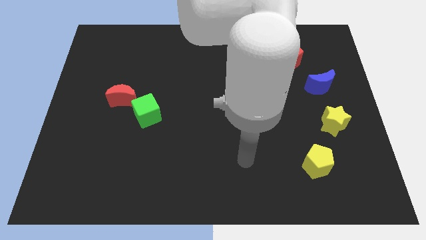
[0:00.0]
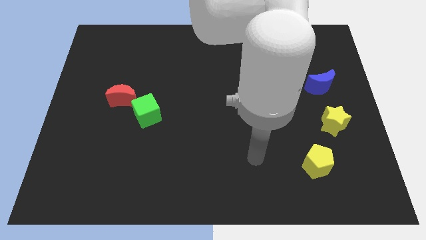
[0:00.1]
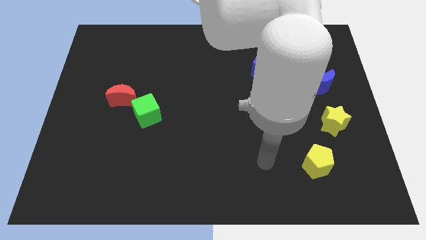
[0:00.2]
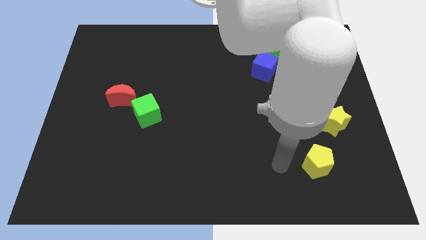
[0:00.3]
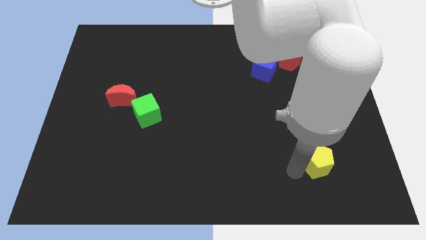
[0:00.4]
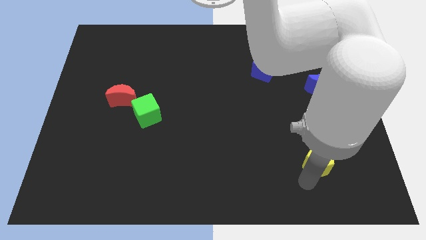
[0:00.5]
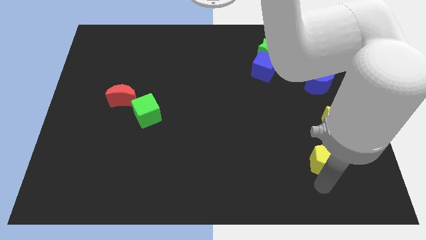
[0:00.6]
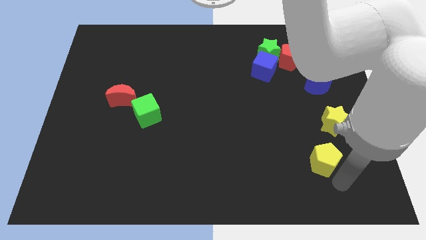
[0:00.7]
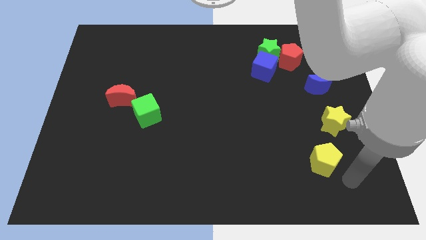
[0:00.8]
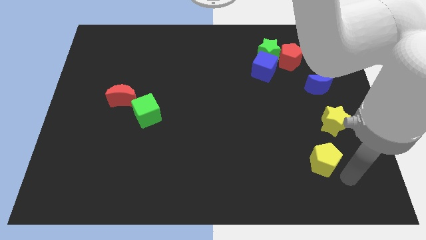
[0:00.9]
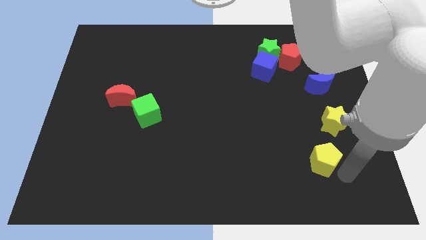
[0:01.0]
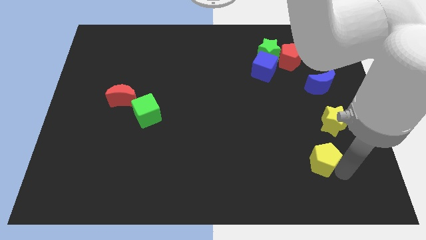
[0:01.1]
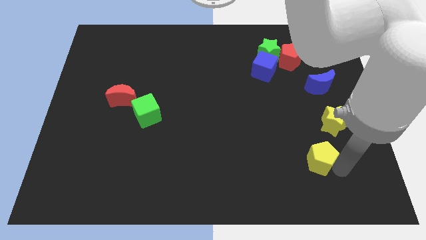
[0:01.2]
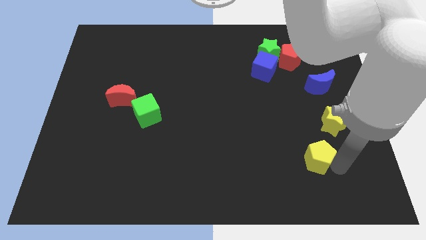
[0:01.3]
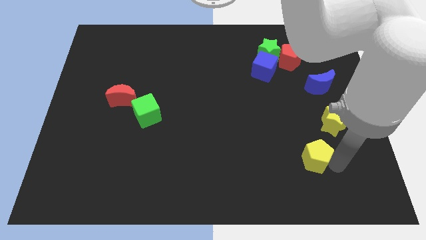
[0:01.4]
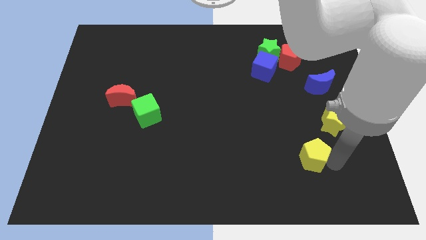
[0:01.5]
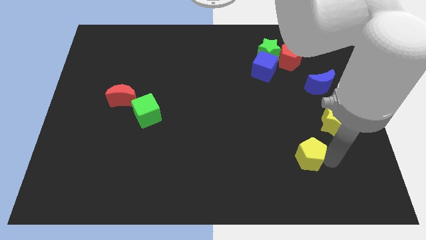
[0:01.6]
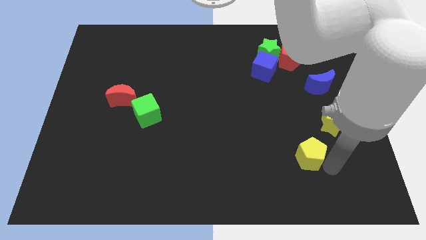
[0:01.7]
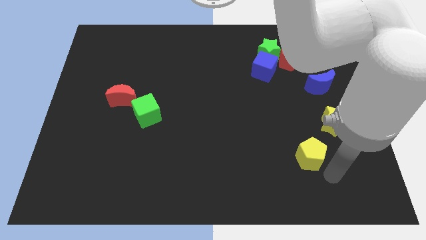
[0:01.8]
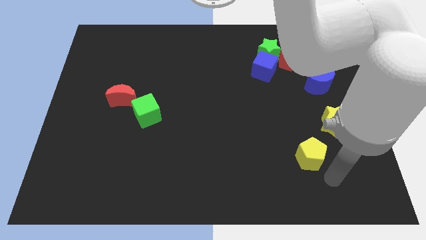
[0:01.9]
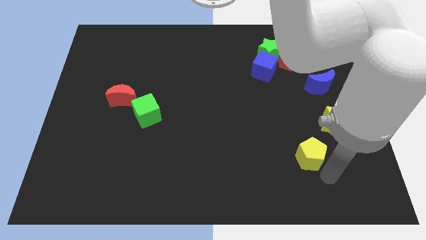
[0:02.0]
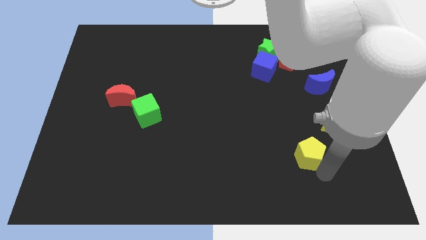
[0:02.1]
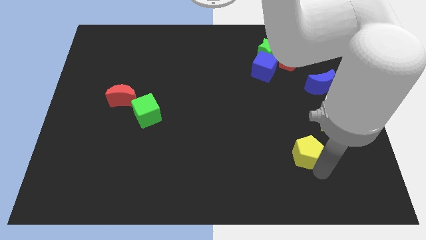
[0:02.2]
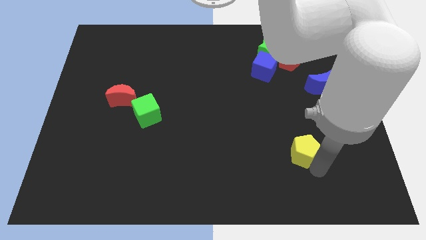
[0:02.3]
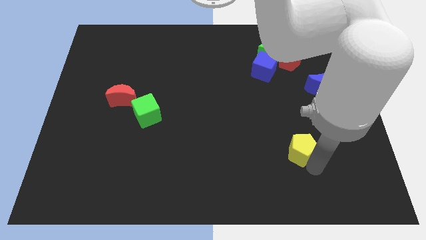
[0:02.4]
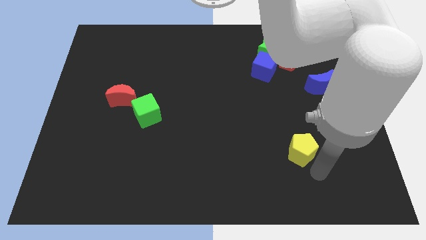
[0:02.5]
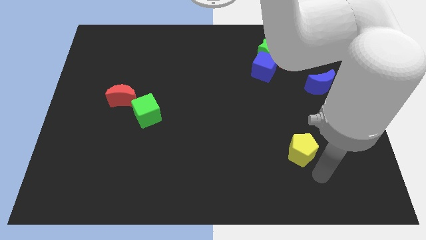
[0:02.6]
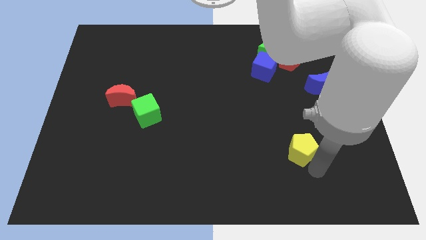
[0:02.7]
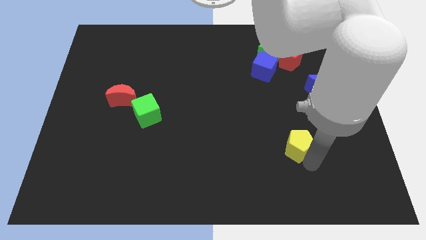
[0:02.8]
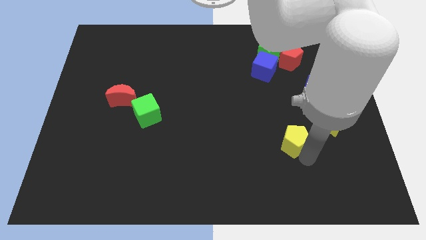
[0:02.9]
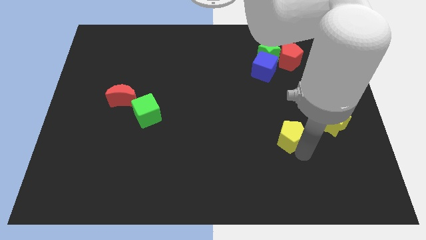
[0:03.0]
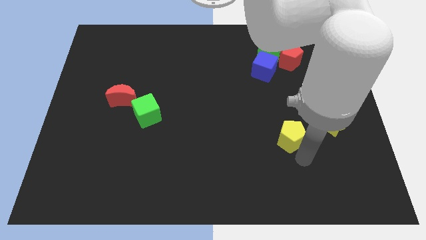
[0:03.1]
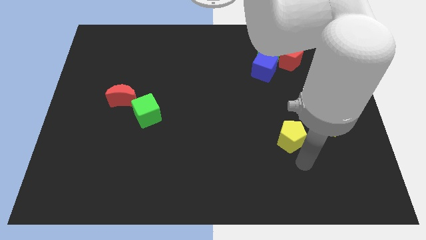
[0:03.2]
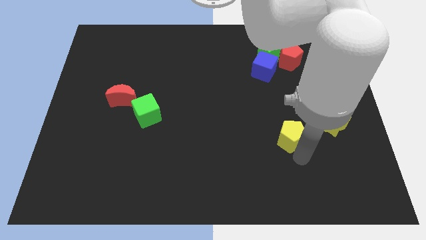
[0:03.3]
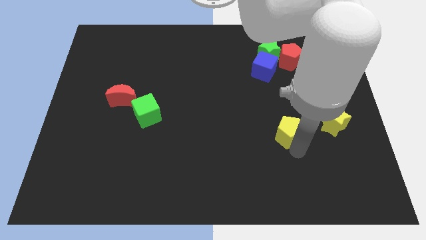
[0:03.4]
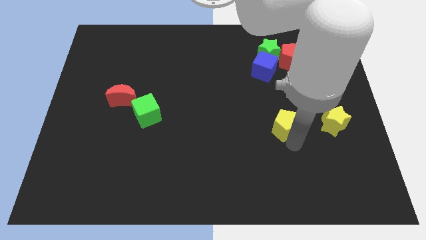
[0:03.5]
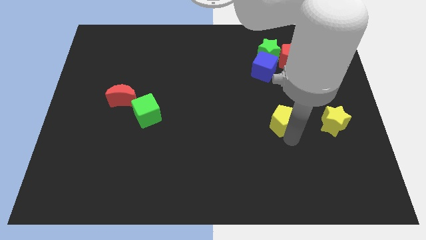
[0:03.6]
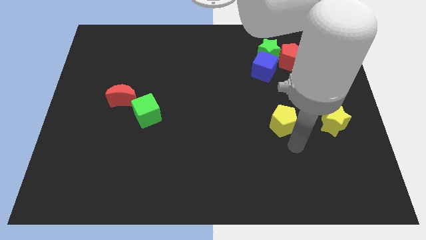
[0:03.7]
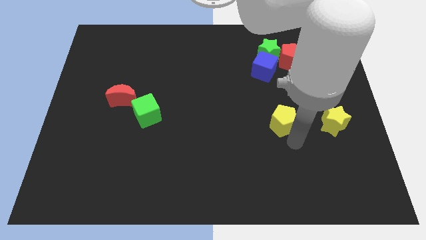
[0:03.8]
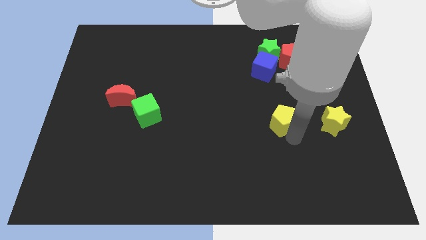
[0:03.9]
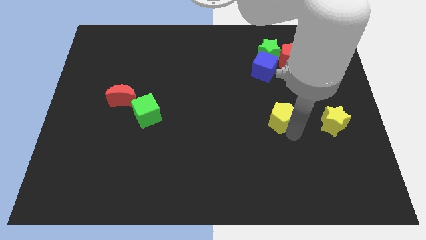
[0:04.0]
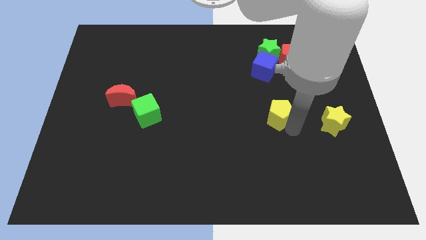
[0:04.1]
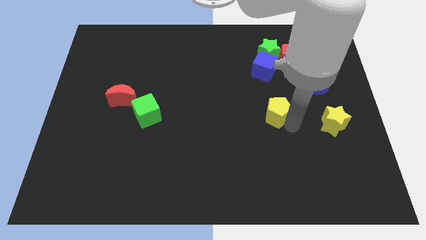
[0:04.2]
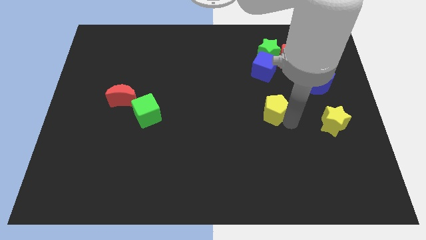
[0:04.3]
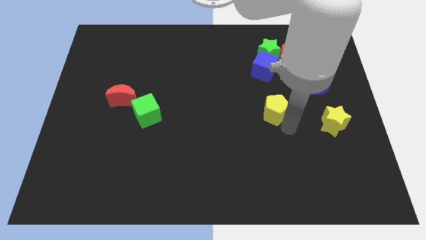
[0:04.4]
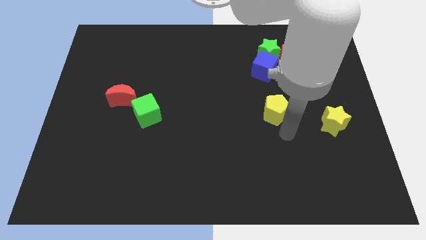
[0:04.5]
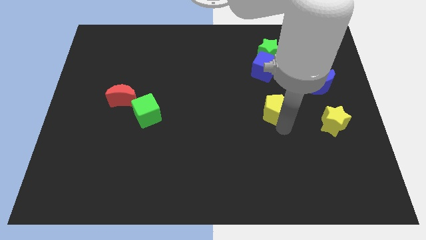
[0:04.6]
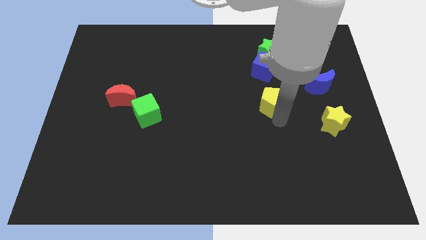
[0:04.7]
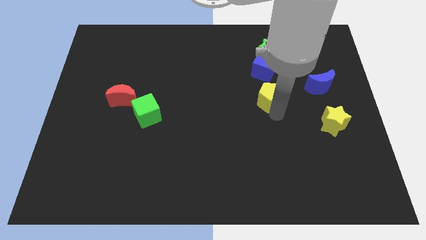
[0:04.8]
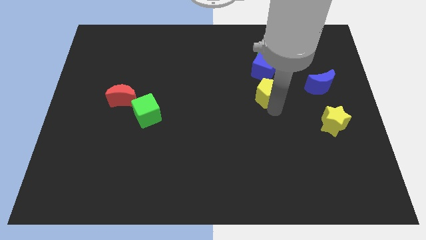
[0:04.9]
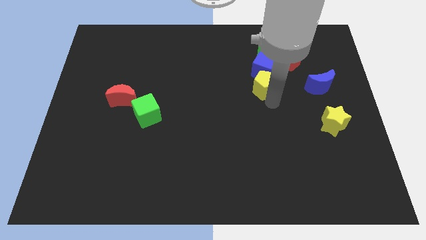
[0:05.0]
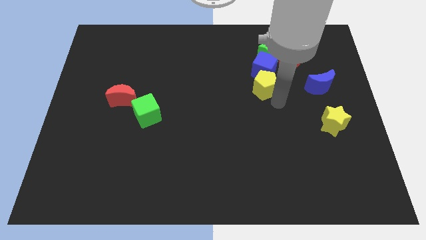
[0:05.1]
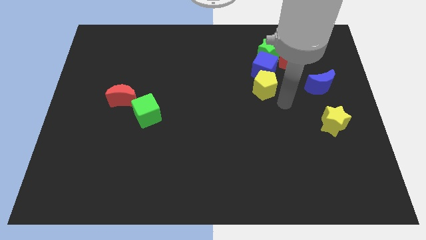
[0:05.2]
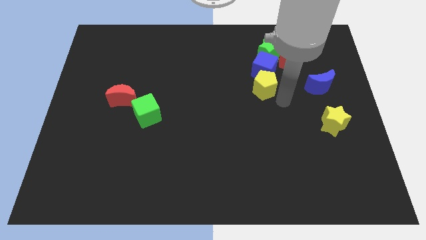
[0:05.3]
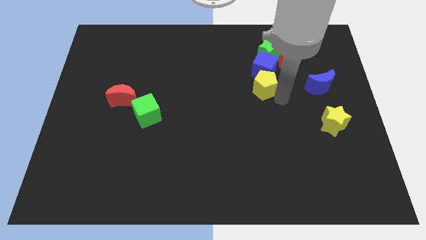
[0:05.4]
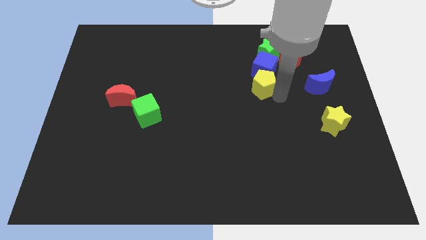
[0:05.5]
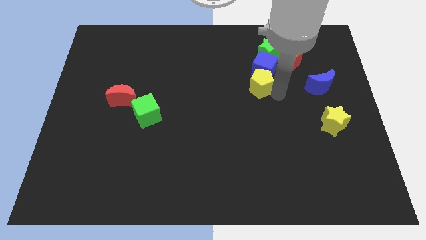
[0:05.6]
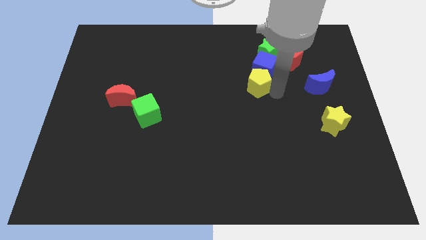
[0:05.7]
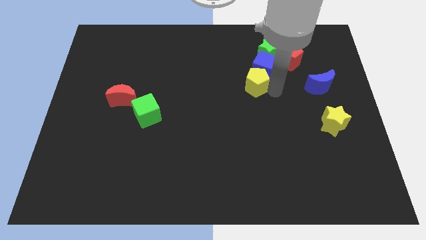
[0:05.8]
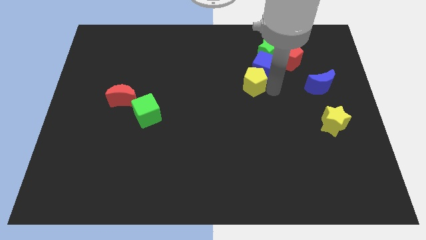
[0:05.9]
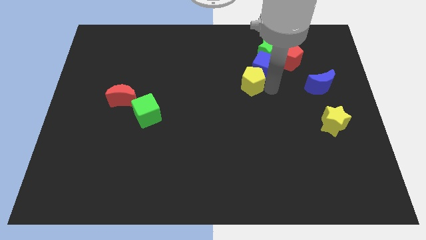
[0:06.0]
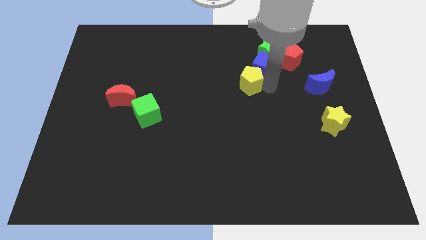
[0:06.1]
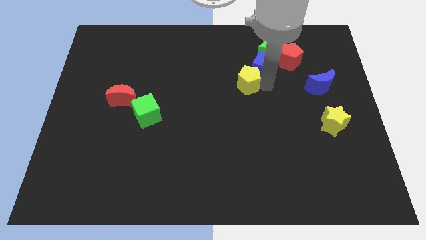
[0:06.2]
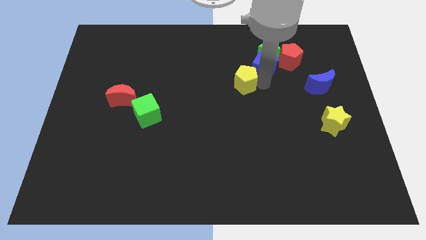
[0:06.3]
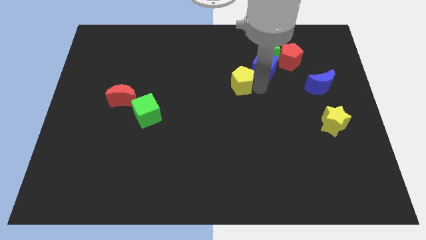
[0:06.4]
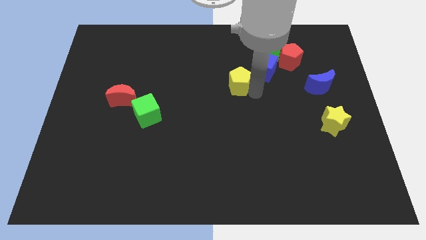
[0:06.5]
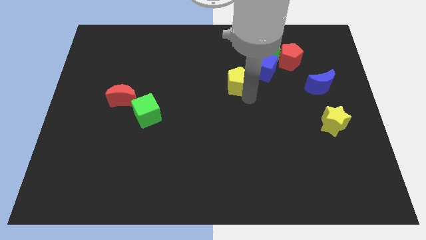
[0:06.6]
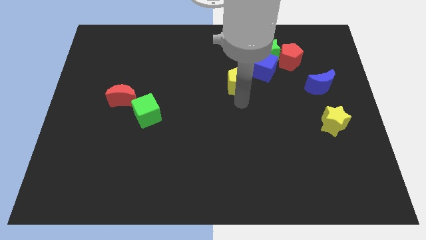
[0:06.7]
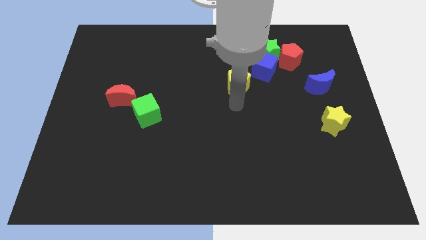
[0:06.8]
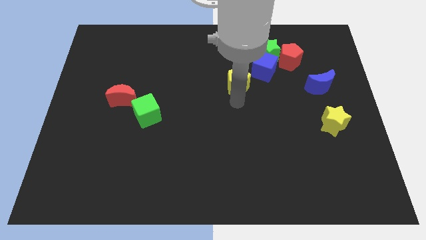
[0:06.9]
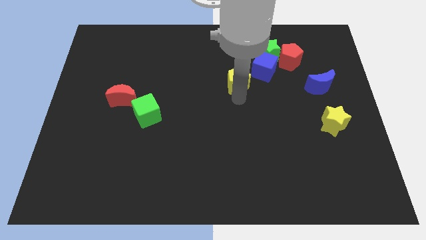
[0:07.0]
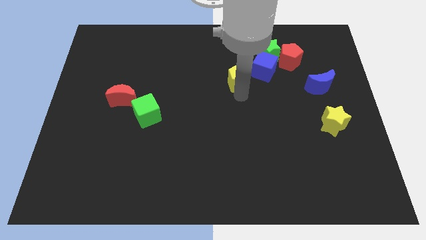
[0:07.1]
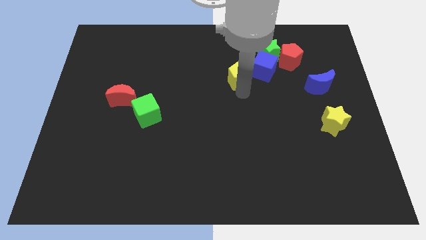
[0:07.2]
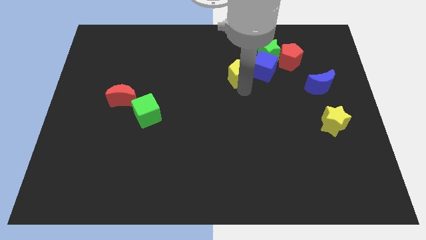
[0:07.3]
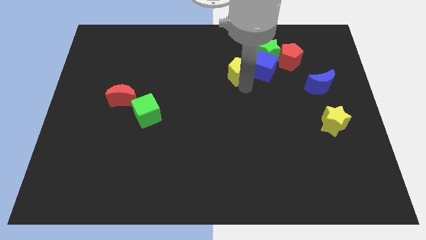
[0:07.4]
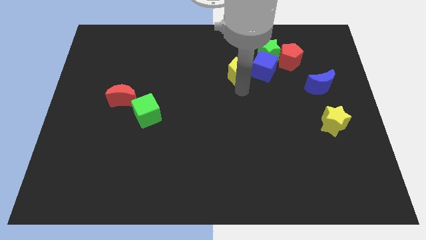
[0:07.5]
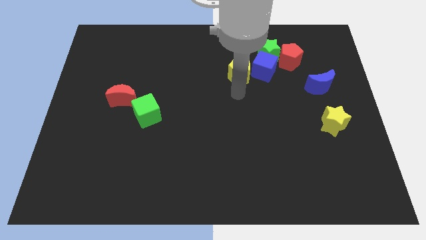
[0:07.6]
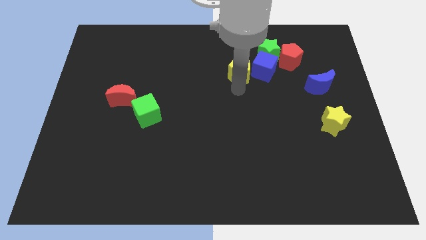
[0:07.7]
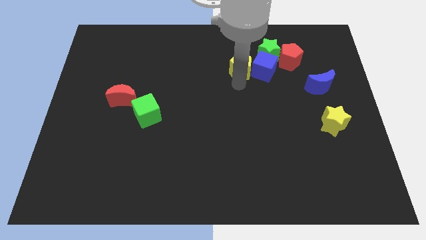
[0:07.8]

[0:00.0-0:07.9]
move the yellow pentagon to the top left side of the blue cube
